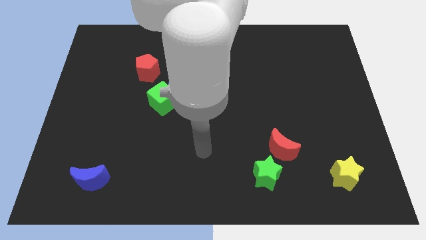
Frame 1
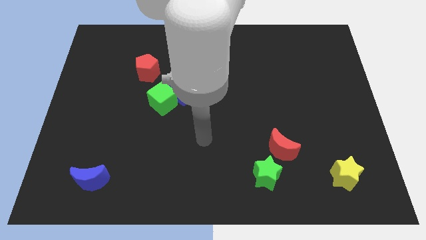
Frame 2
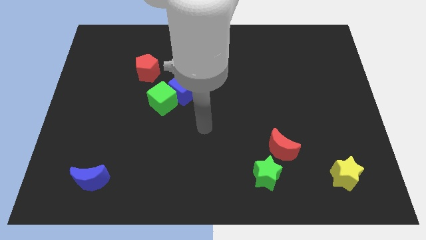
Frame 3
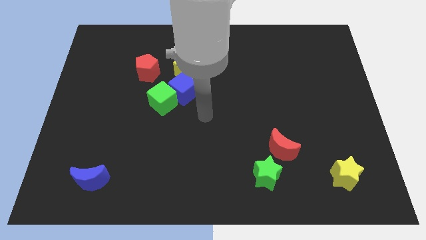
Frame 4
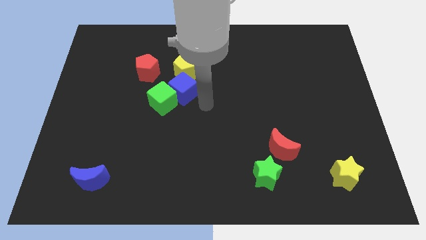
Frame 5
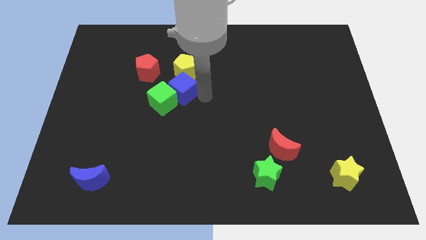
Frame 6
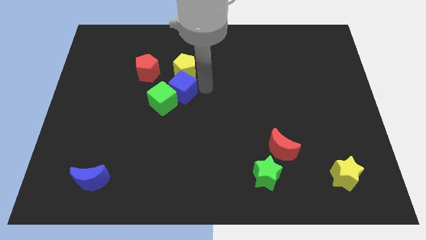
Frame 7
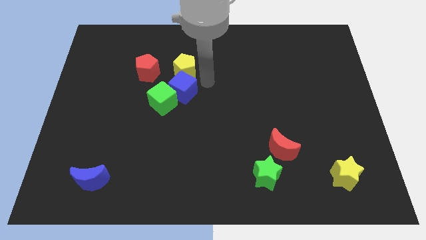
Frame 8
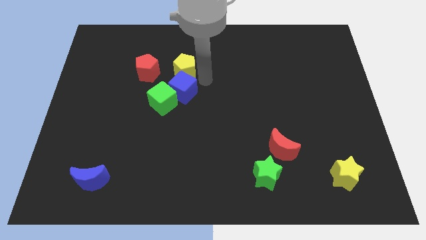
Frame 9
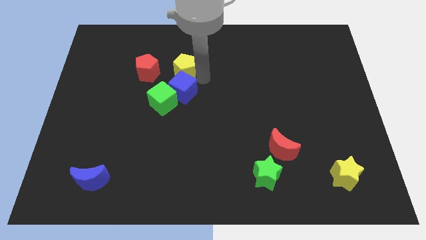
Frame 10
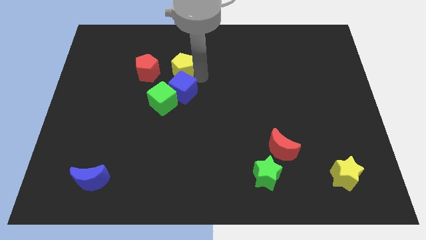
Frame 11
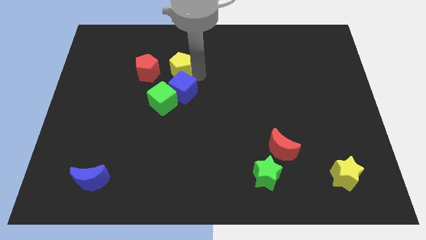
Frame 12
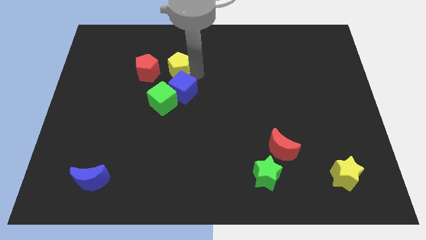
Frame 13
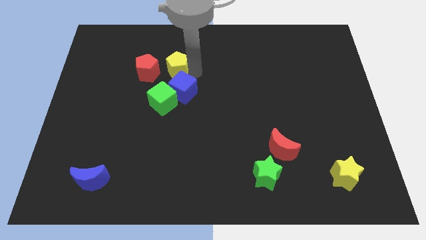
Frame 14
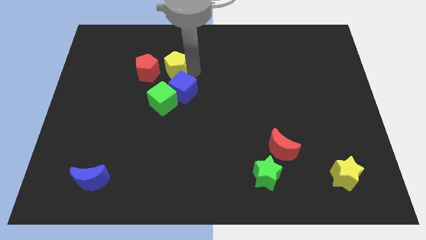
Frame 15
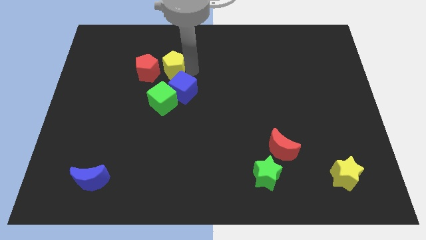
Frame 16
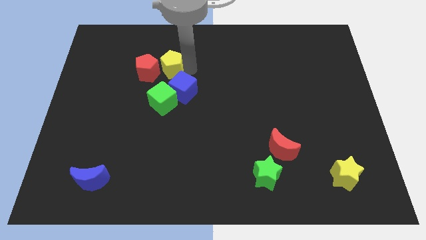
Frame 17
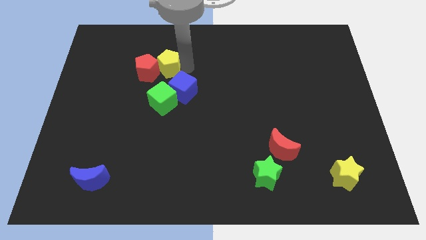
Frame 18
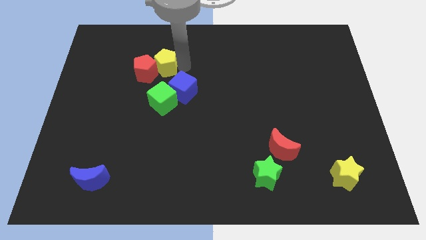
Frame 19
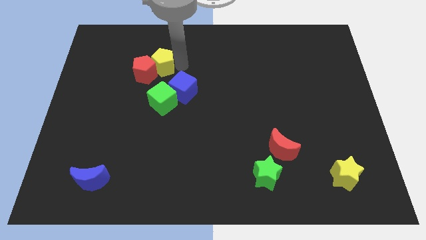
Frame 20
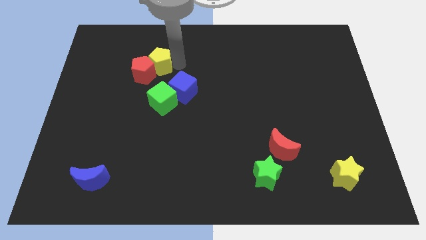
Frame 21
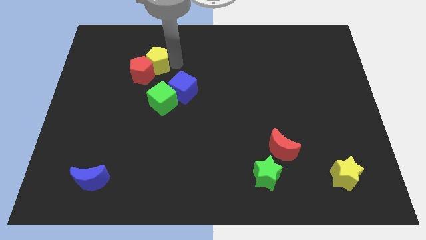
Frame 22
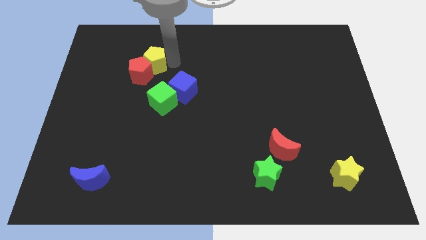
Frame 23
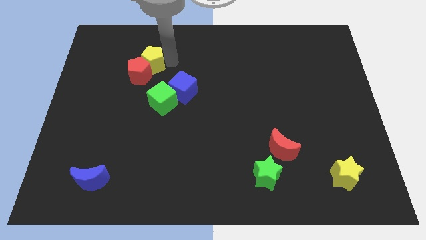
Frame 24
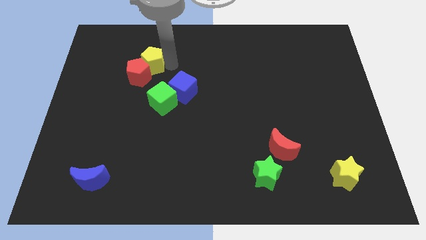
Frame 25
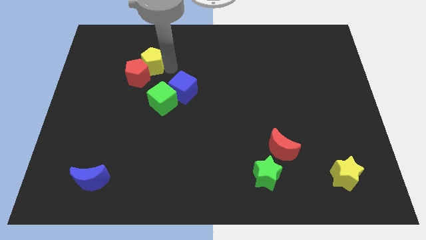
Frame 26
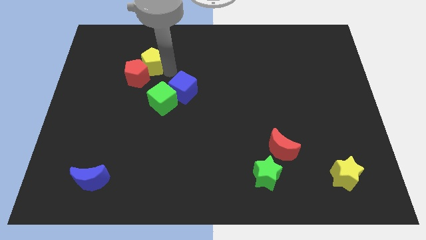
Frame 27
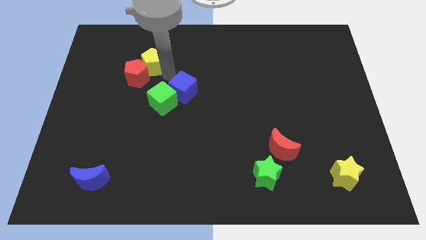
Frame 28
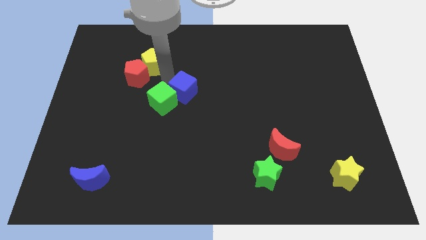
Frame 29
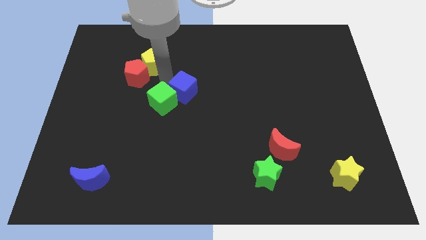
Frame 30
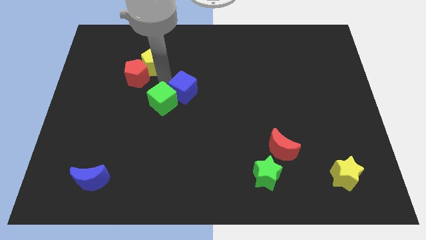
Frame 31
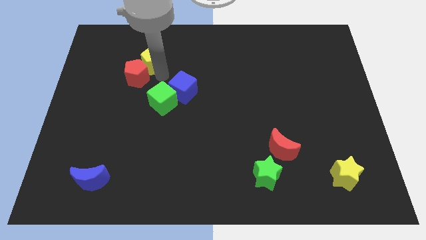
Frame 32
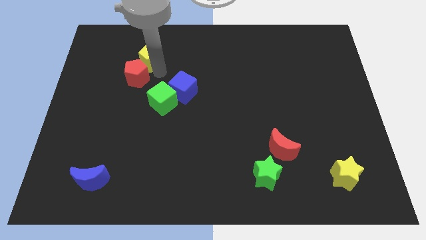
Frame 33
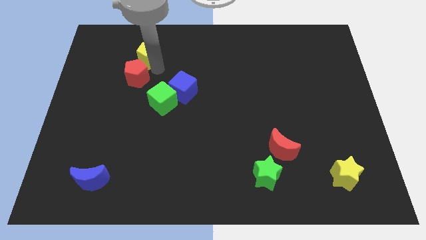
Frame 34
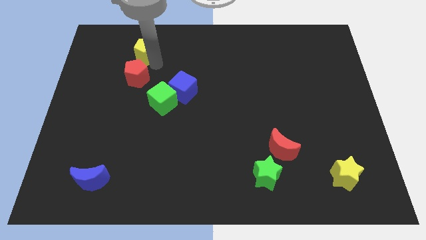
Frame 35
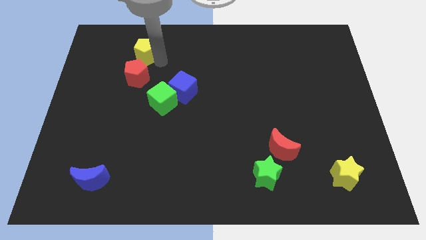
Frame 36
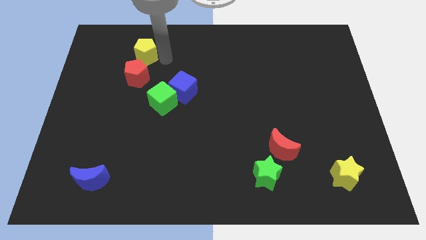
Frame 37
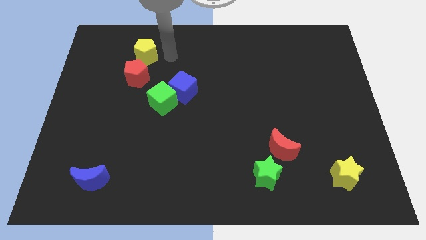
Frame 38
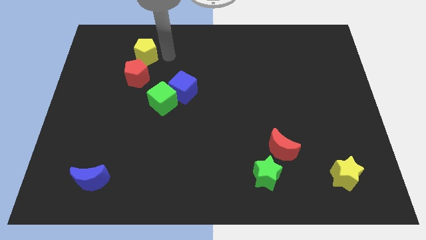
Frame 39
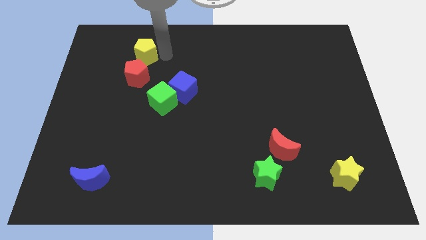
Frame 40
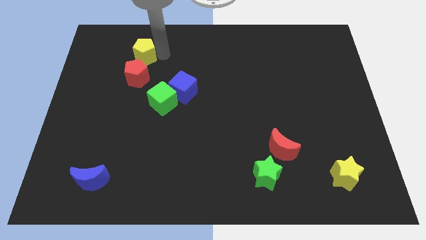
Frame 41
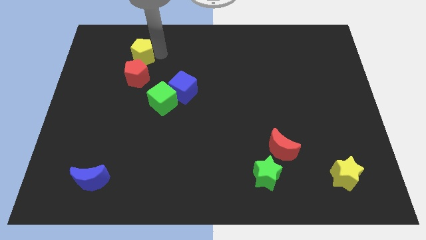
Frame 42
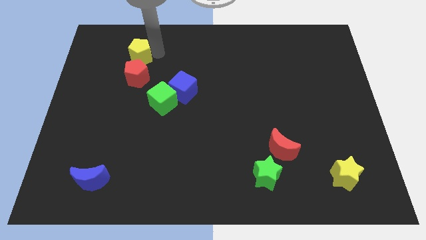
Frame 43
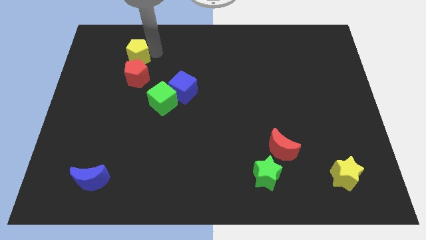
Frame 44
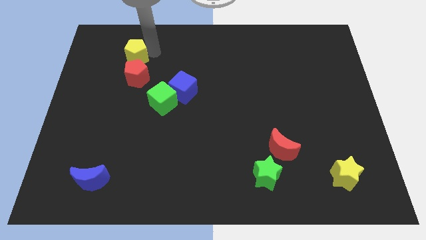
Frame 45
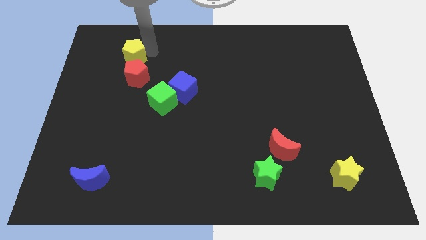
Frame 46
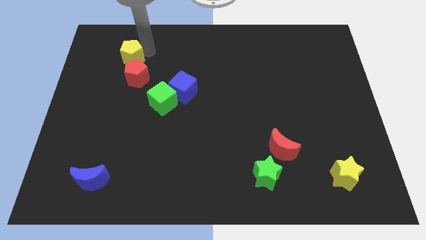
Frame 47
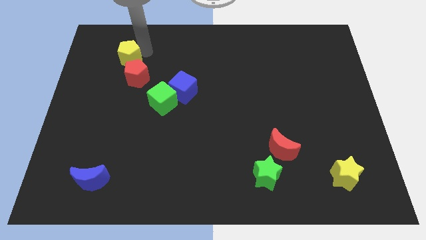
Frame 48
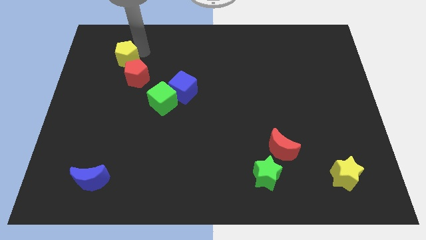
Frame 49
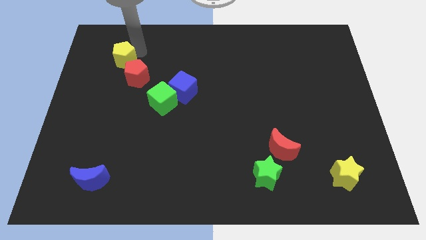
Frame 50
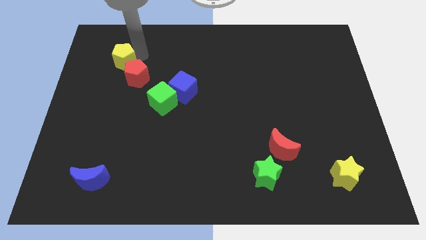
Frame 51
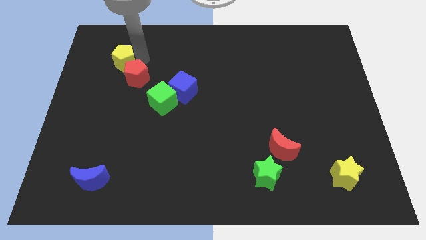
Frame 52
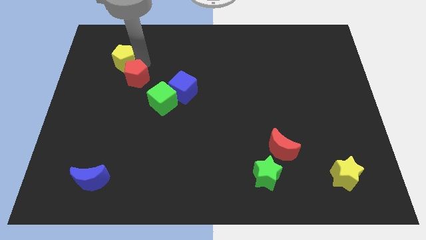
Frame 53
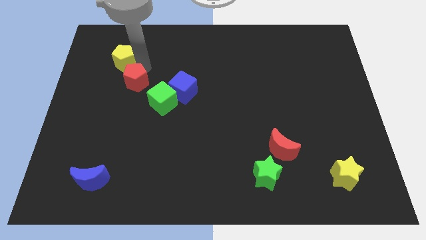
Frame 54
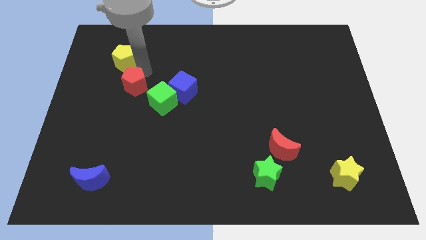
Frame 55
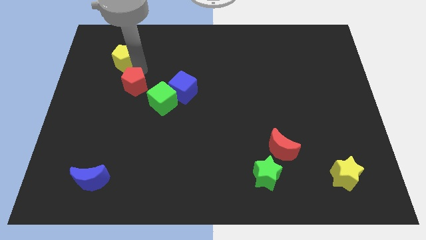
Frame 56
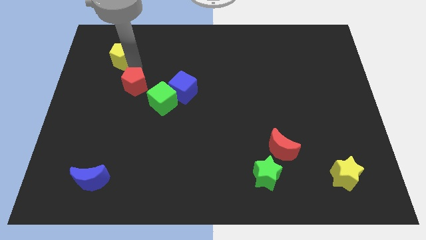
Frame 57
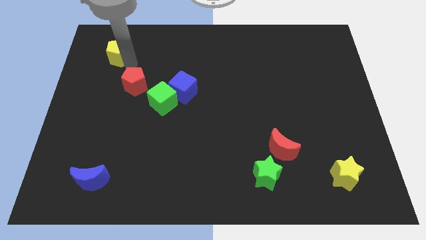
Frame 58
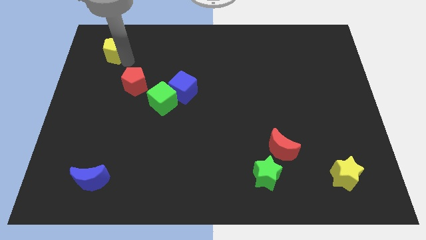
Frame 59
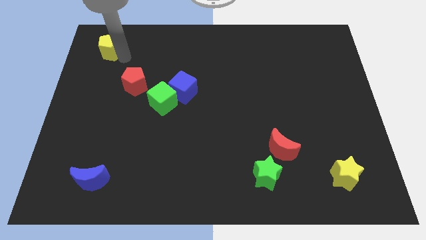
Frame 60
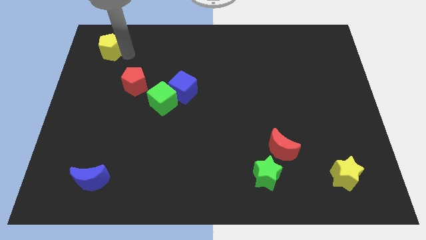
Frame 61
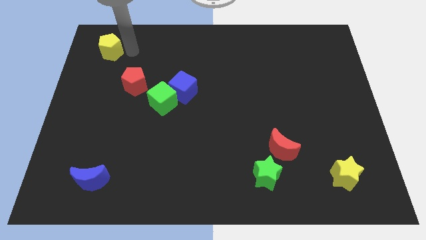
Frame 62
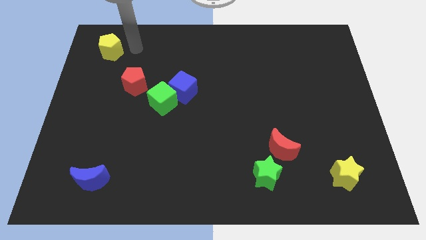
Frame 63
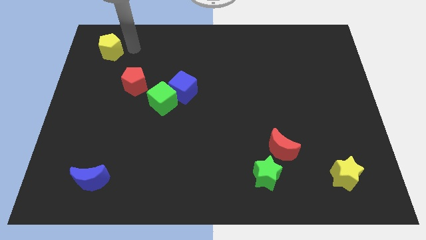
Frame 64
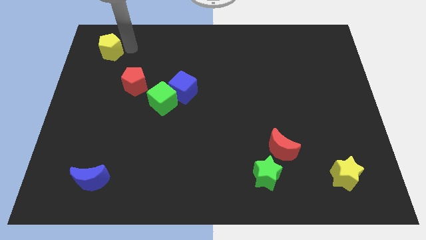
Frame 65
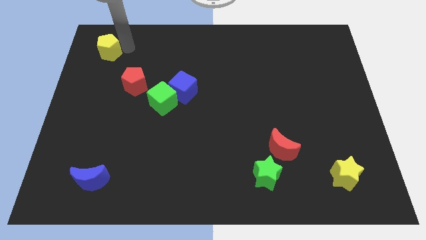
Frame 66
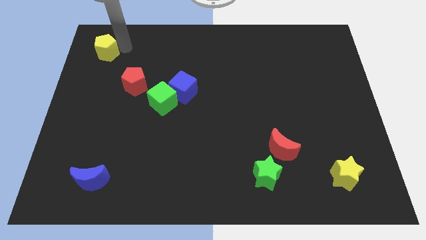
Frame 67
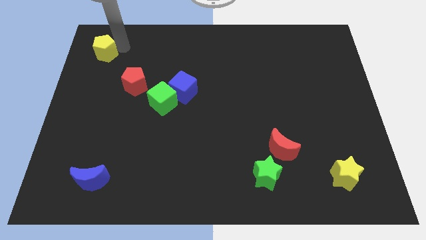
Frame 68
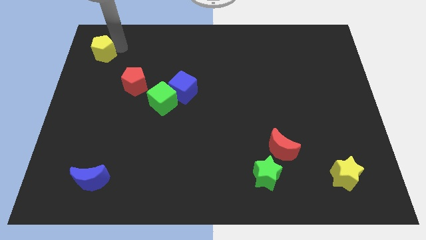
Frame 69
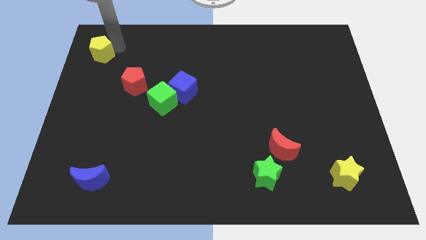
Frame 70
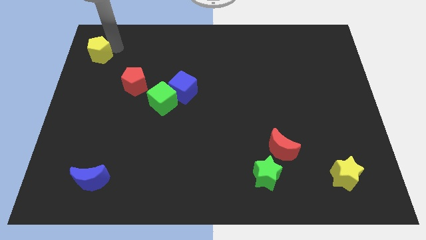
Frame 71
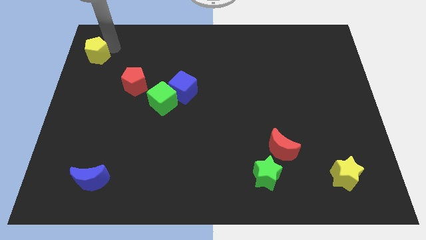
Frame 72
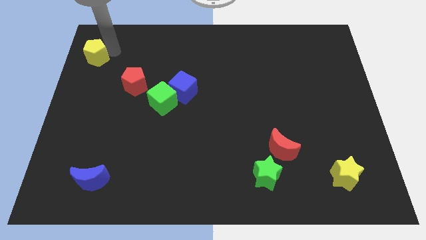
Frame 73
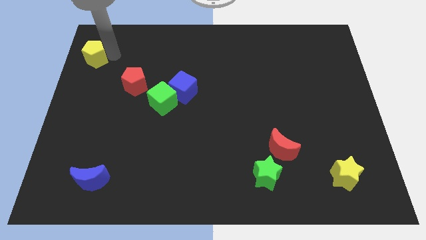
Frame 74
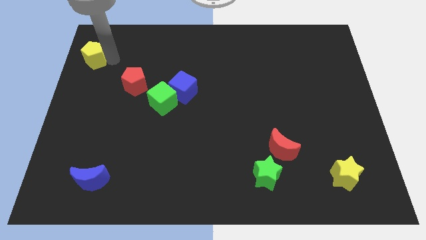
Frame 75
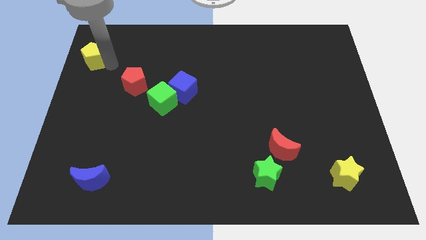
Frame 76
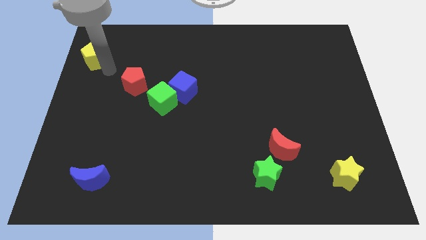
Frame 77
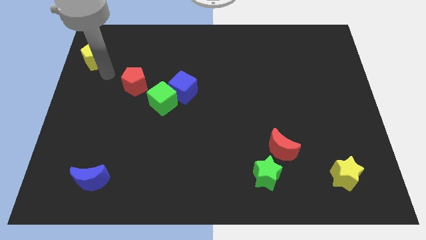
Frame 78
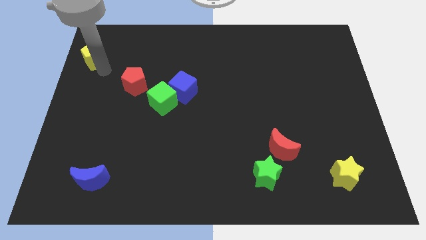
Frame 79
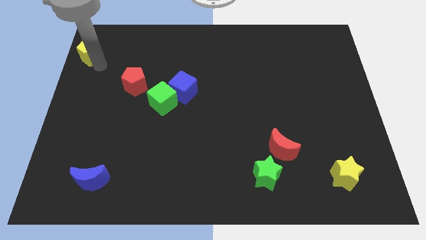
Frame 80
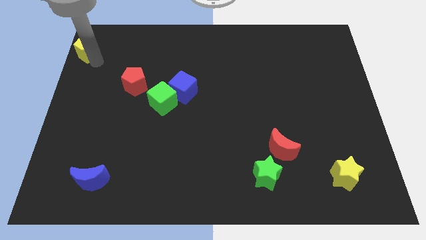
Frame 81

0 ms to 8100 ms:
slide the yellow pentagon to the top left corner
